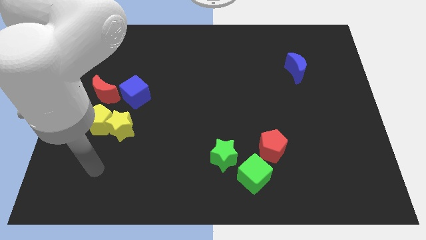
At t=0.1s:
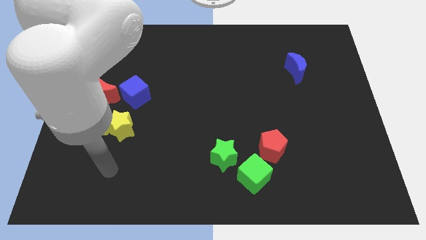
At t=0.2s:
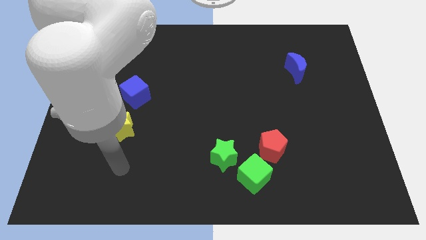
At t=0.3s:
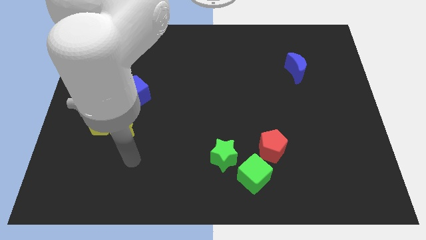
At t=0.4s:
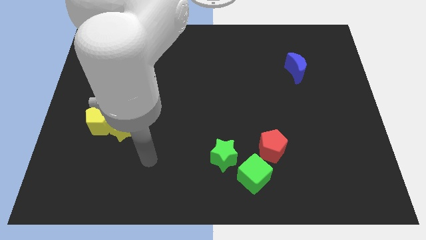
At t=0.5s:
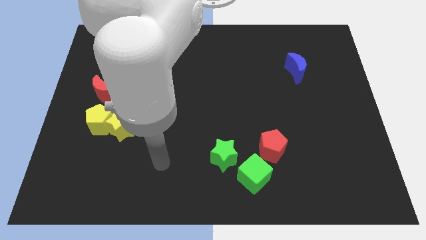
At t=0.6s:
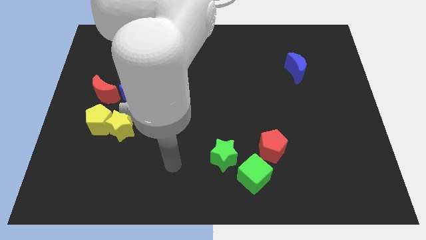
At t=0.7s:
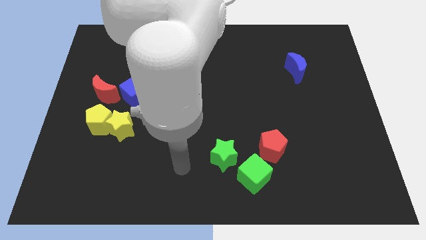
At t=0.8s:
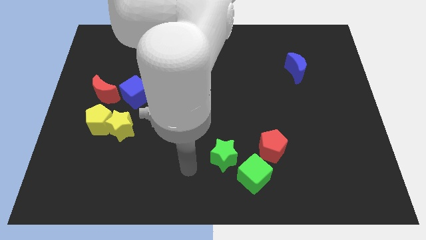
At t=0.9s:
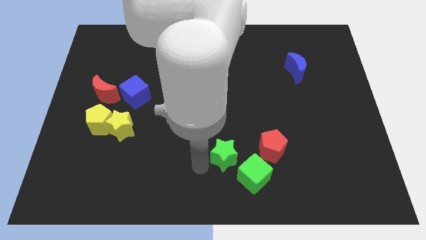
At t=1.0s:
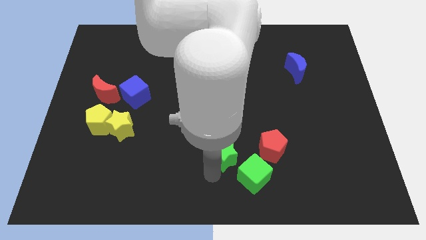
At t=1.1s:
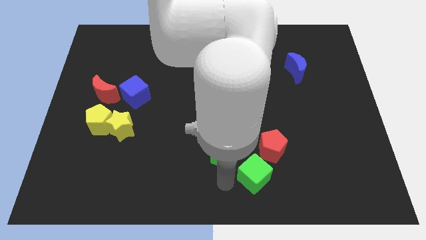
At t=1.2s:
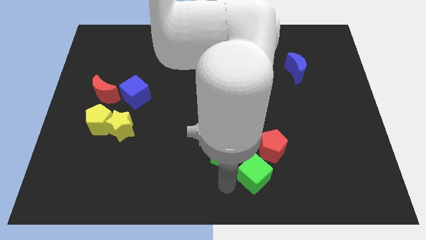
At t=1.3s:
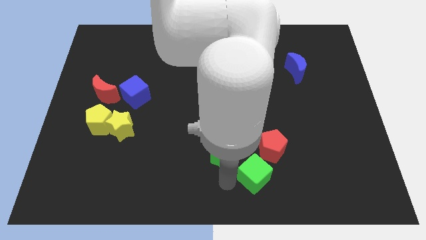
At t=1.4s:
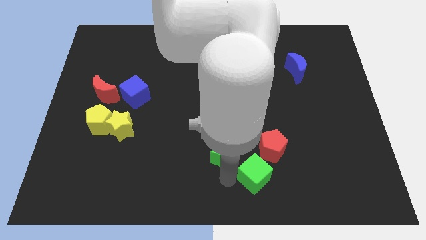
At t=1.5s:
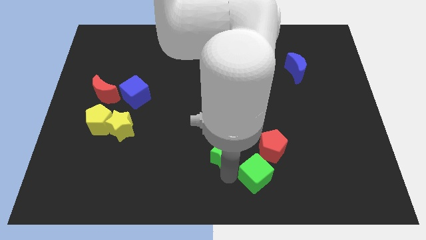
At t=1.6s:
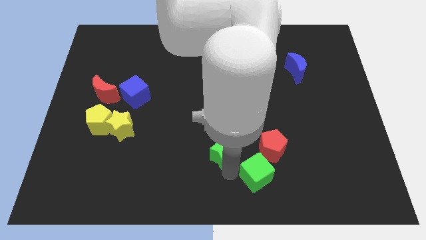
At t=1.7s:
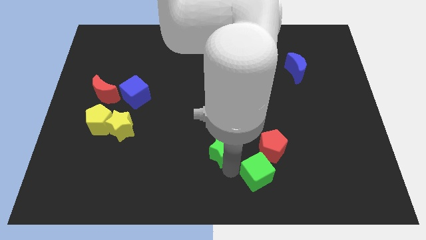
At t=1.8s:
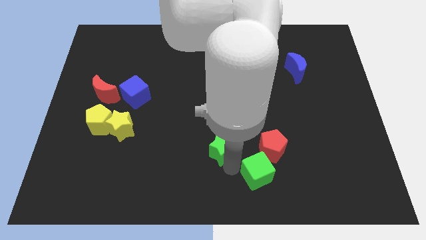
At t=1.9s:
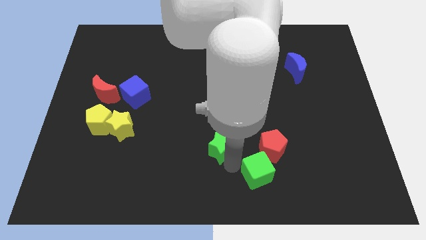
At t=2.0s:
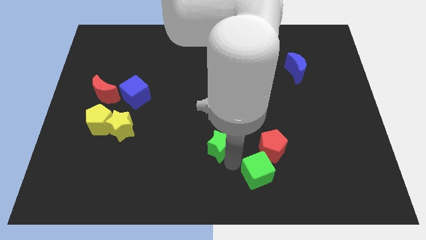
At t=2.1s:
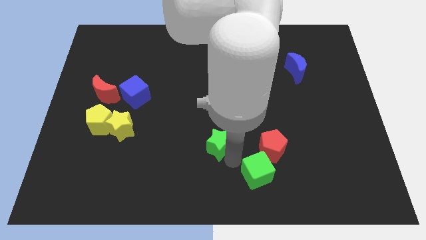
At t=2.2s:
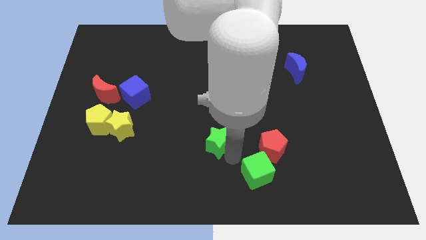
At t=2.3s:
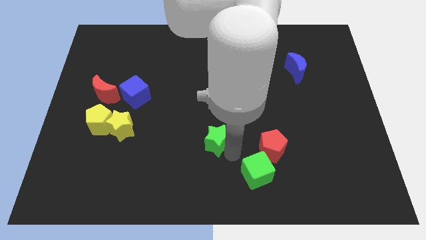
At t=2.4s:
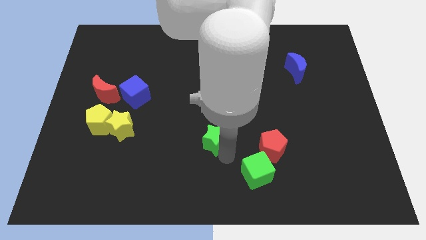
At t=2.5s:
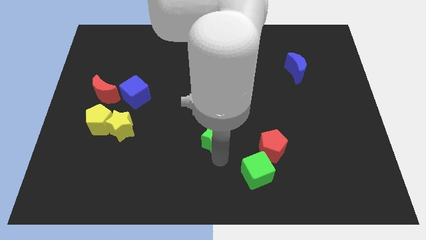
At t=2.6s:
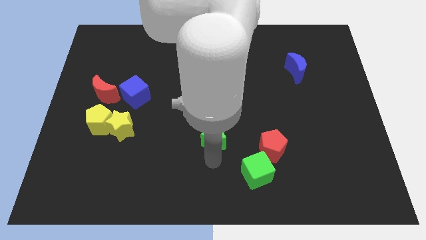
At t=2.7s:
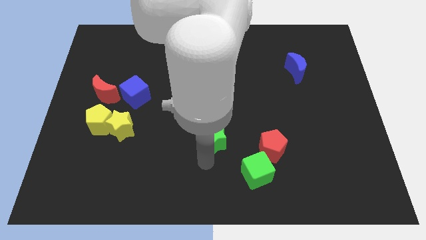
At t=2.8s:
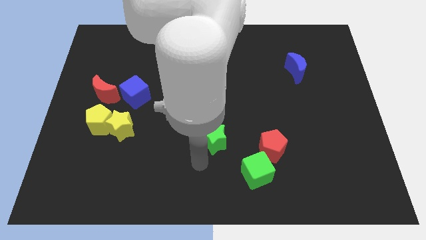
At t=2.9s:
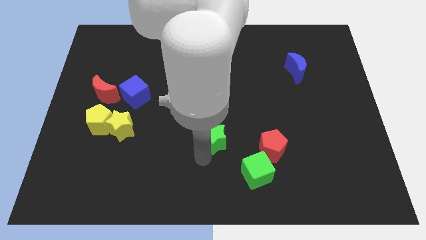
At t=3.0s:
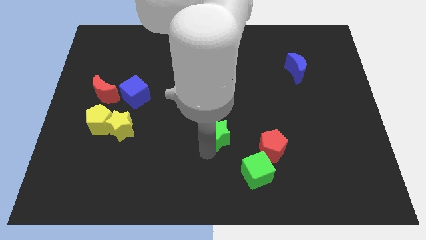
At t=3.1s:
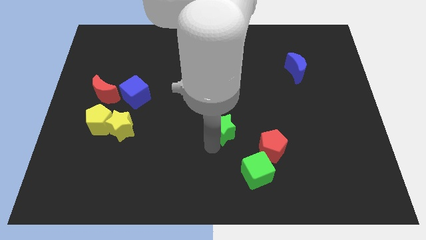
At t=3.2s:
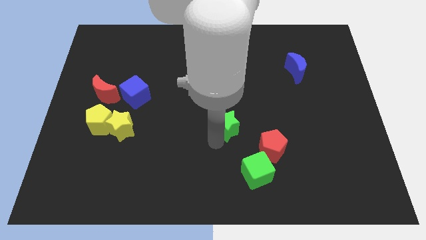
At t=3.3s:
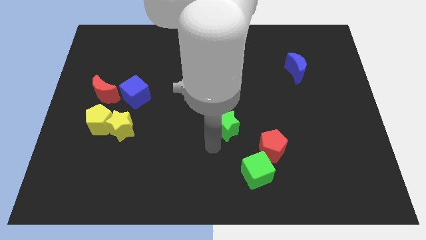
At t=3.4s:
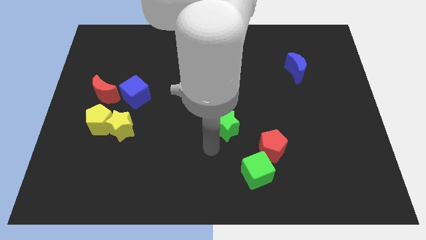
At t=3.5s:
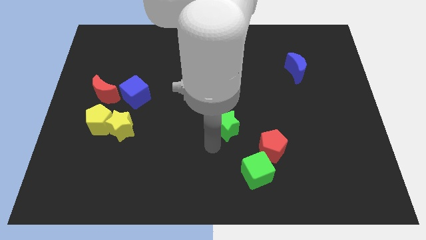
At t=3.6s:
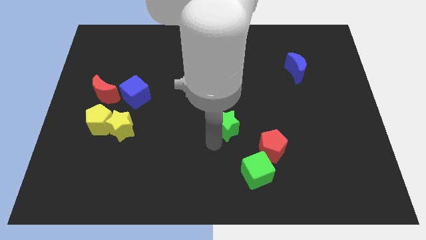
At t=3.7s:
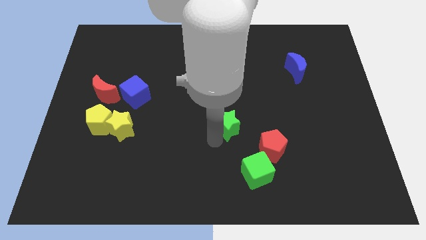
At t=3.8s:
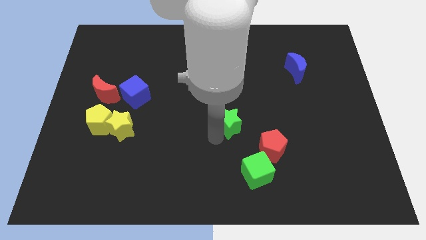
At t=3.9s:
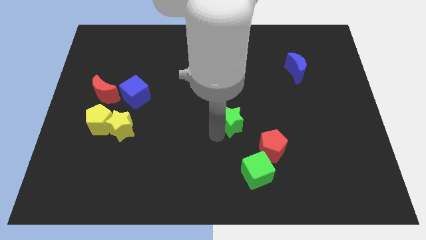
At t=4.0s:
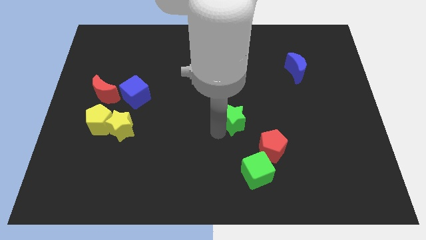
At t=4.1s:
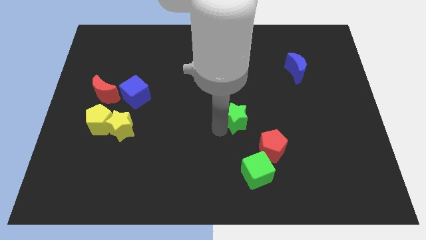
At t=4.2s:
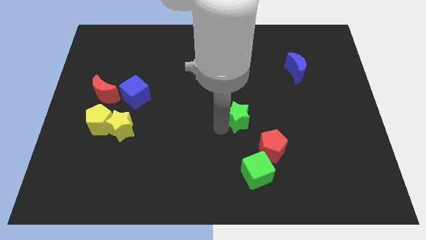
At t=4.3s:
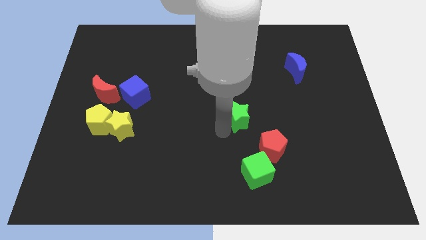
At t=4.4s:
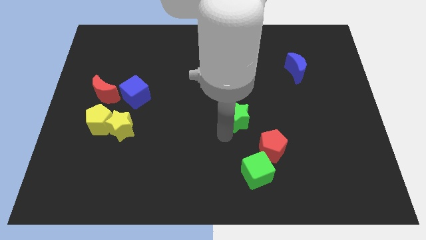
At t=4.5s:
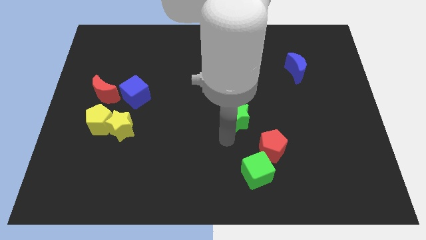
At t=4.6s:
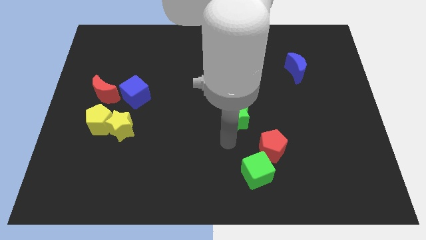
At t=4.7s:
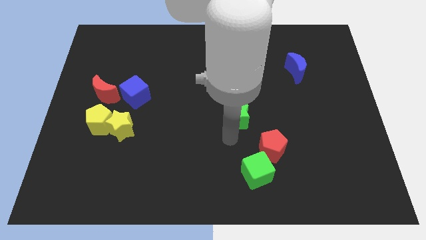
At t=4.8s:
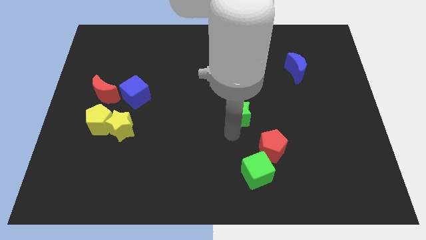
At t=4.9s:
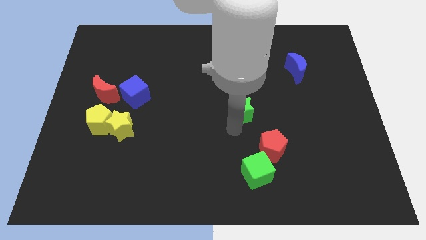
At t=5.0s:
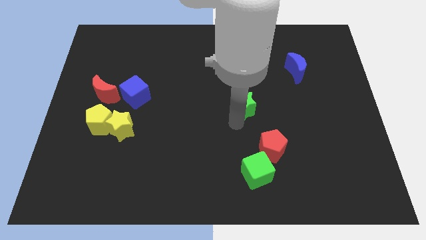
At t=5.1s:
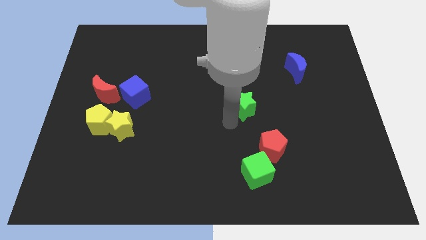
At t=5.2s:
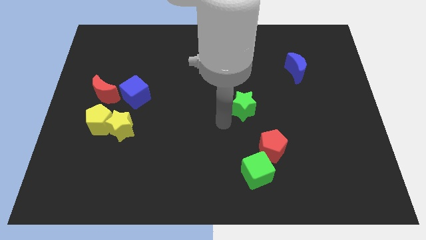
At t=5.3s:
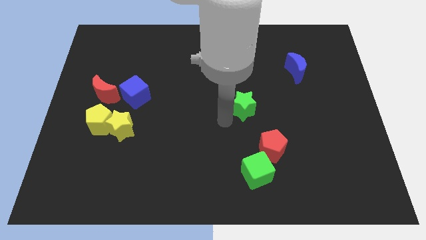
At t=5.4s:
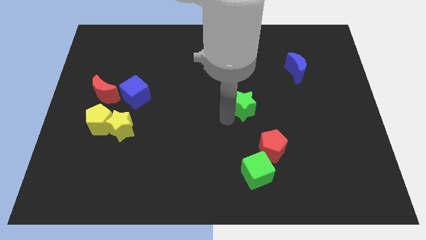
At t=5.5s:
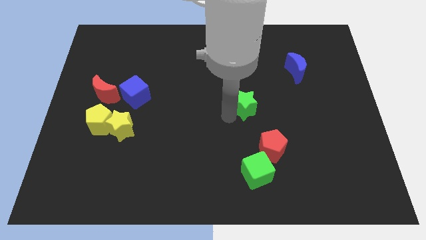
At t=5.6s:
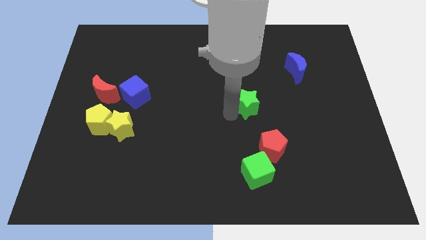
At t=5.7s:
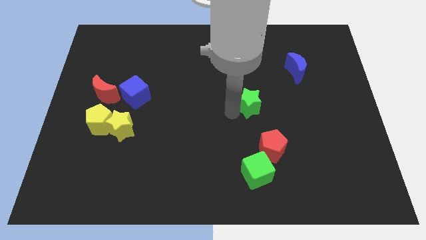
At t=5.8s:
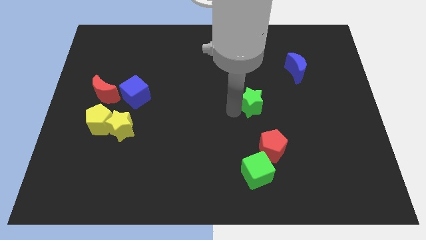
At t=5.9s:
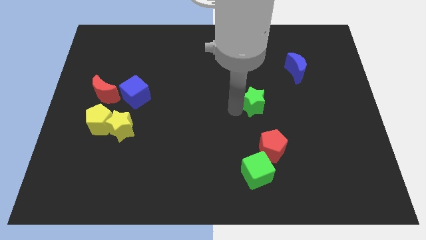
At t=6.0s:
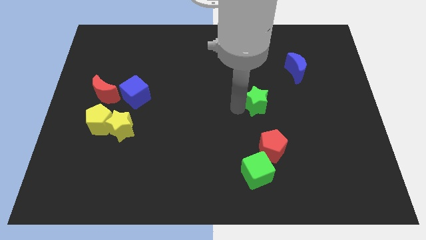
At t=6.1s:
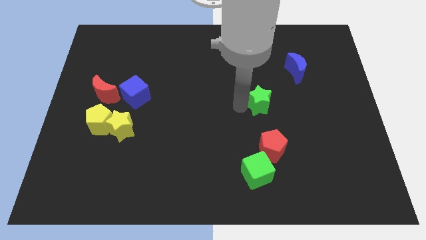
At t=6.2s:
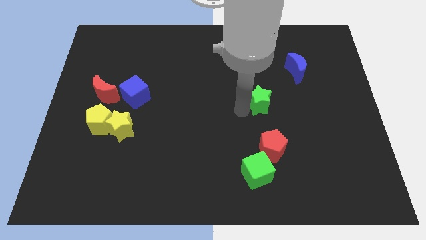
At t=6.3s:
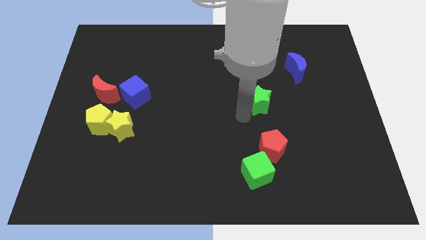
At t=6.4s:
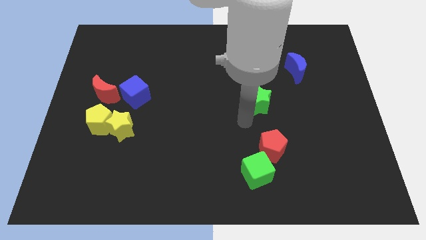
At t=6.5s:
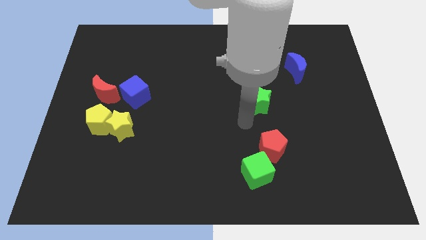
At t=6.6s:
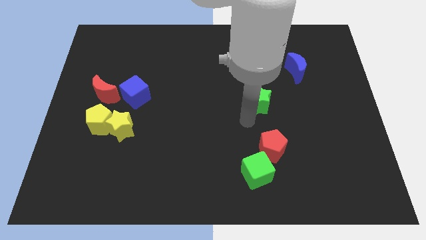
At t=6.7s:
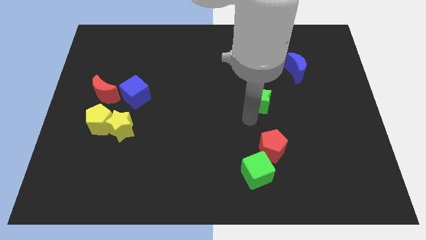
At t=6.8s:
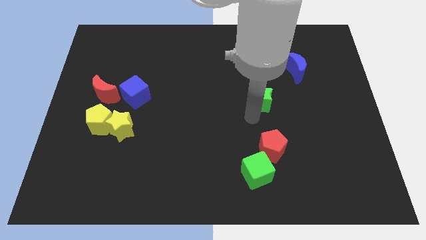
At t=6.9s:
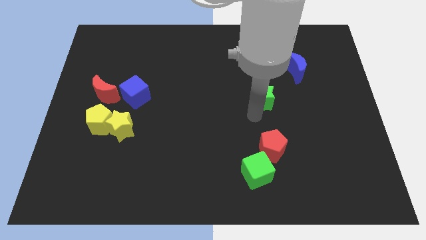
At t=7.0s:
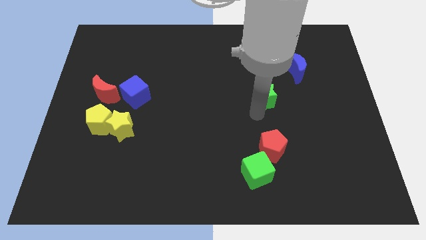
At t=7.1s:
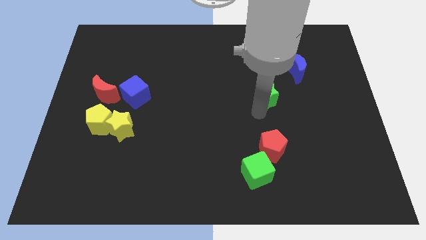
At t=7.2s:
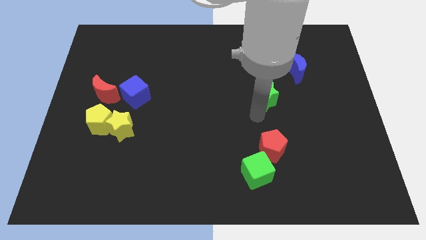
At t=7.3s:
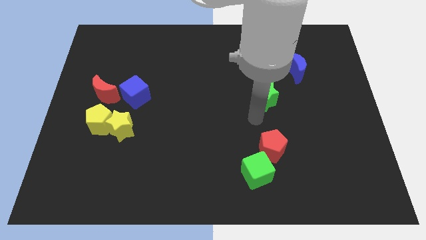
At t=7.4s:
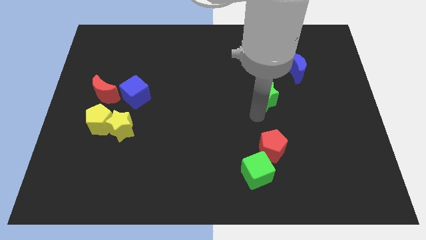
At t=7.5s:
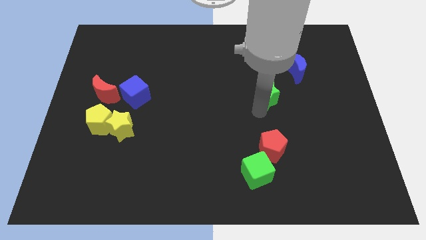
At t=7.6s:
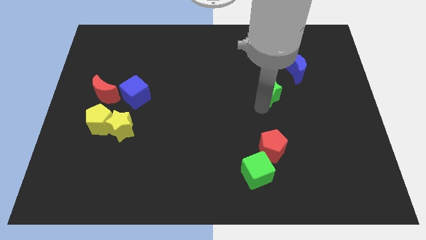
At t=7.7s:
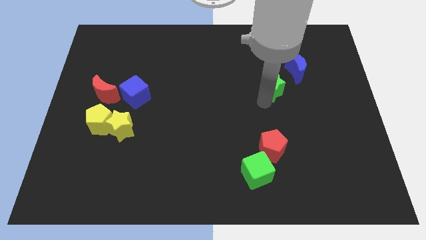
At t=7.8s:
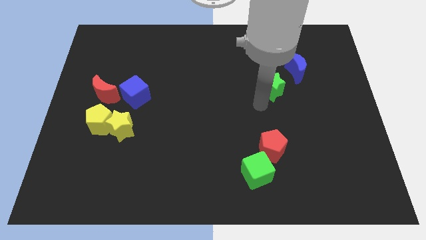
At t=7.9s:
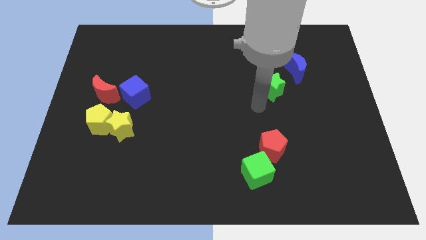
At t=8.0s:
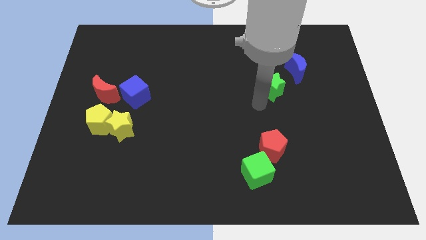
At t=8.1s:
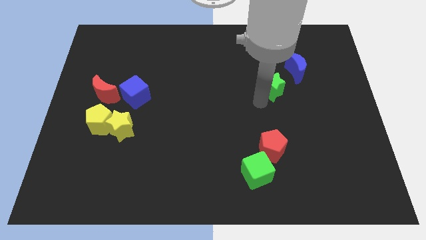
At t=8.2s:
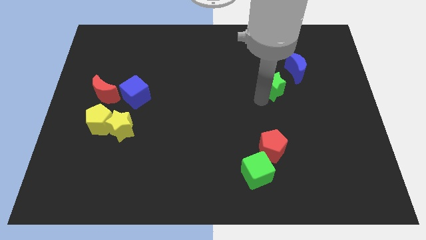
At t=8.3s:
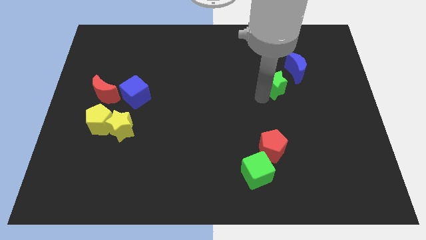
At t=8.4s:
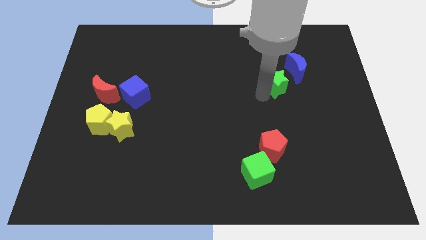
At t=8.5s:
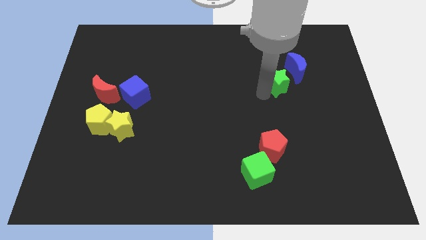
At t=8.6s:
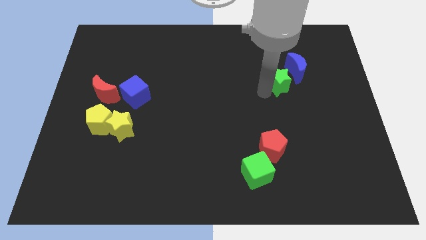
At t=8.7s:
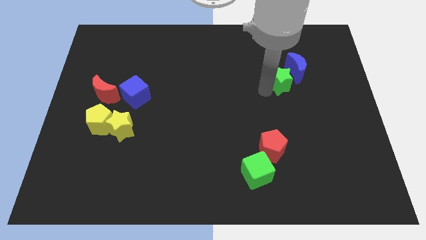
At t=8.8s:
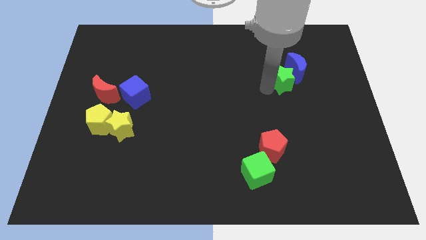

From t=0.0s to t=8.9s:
put the green star towards the blue moon
